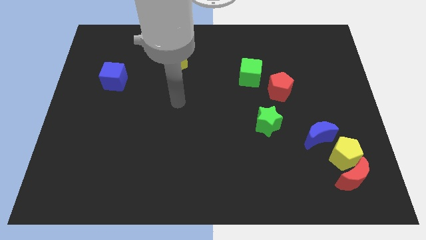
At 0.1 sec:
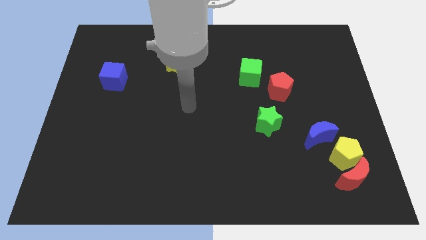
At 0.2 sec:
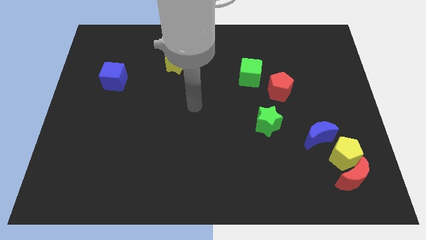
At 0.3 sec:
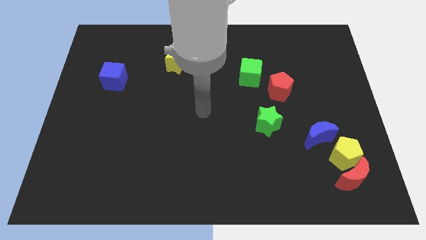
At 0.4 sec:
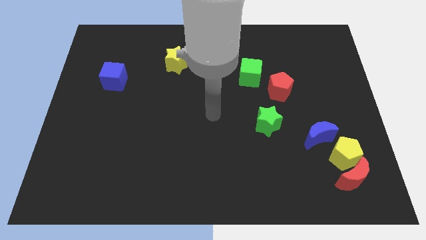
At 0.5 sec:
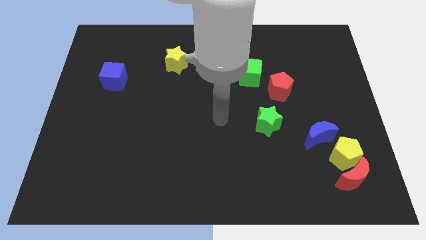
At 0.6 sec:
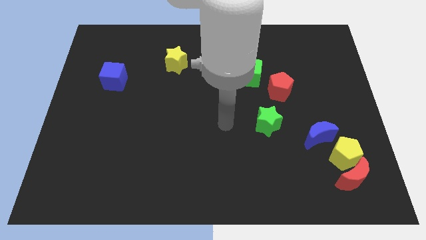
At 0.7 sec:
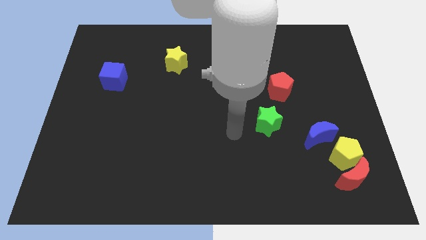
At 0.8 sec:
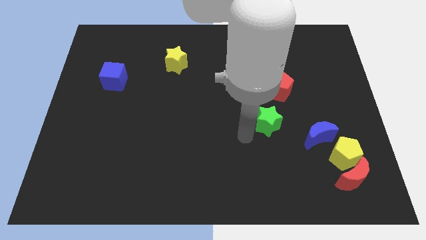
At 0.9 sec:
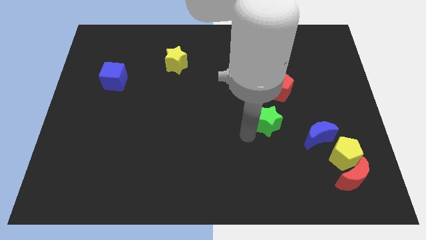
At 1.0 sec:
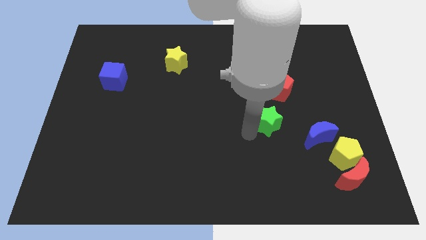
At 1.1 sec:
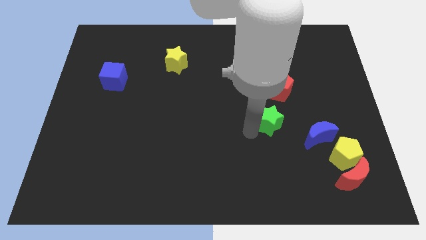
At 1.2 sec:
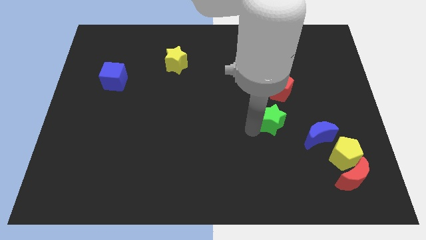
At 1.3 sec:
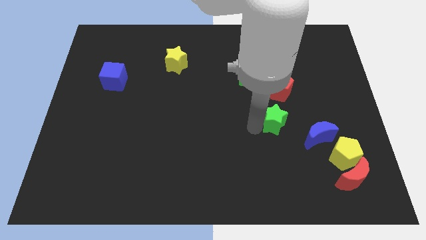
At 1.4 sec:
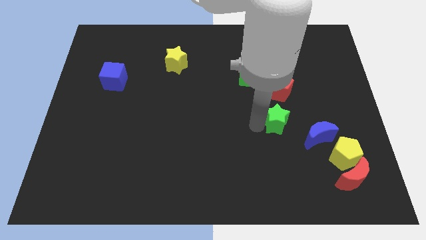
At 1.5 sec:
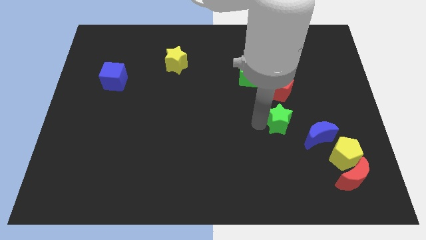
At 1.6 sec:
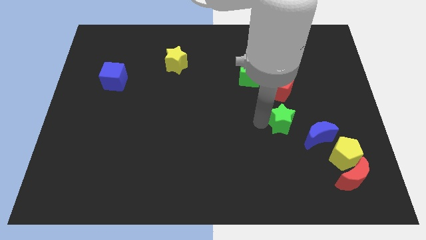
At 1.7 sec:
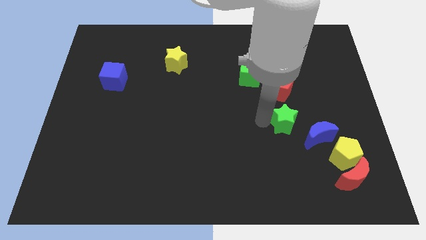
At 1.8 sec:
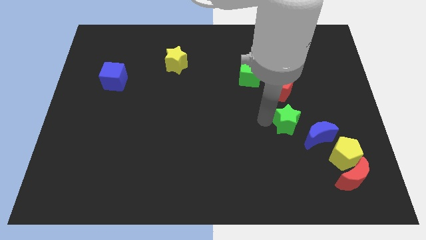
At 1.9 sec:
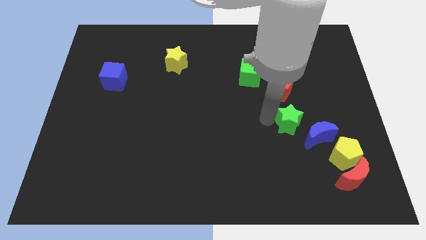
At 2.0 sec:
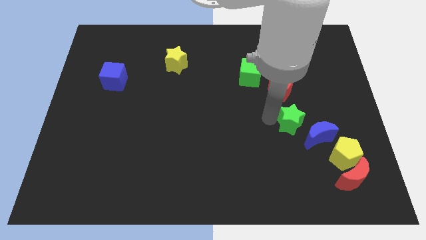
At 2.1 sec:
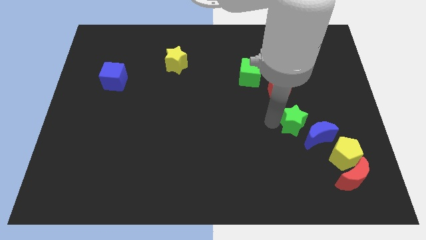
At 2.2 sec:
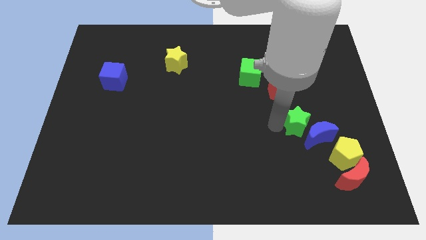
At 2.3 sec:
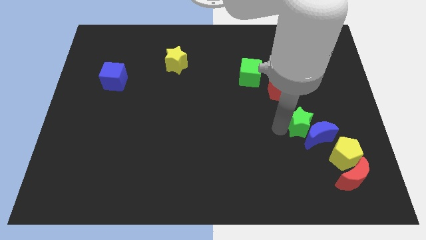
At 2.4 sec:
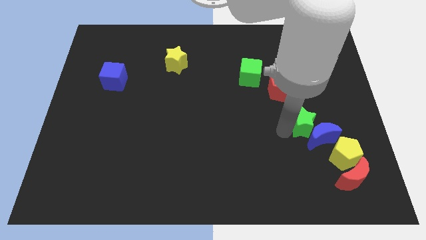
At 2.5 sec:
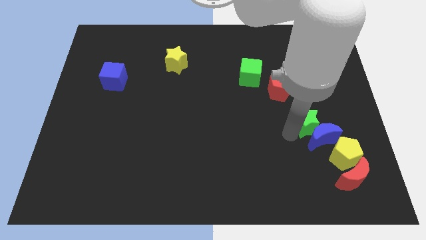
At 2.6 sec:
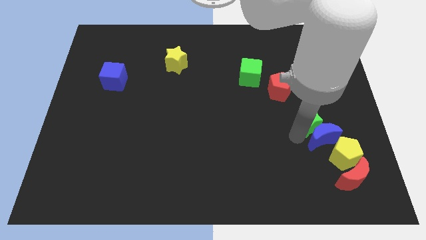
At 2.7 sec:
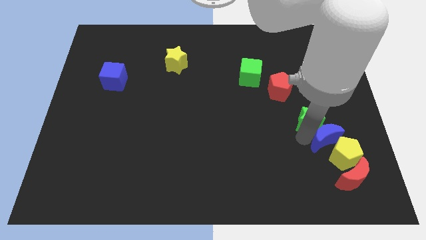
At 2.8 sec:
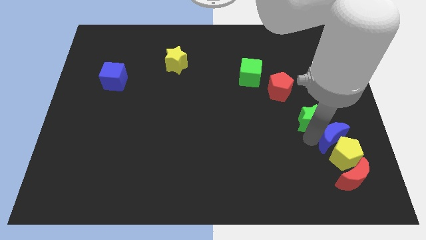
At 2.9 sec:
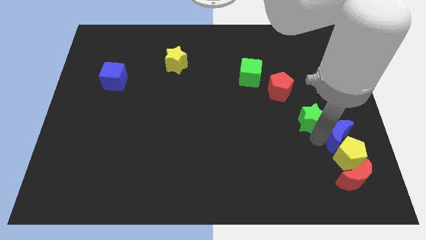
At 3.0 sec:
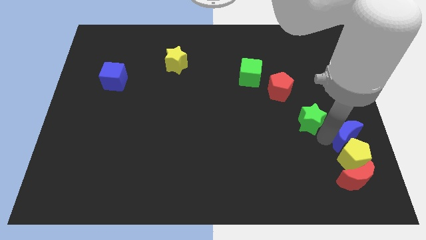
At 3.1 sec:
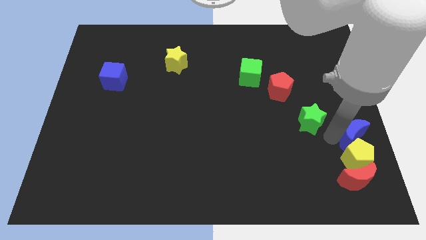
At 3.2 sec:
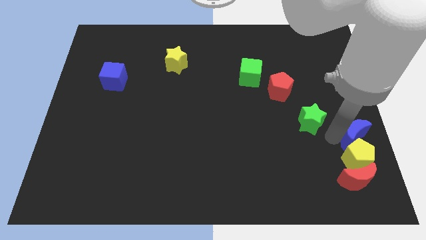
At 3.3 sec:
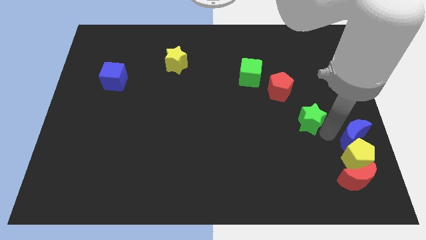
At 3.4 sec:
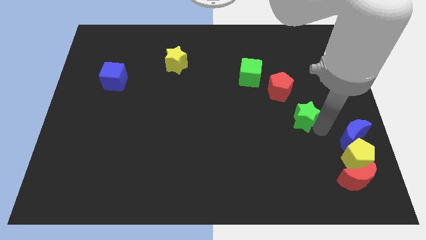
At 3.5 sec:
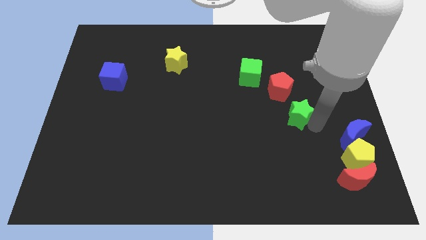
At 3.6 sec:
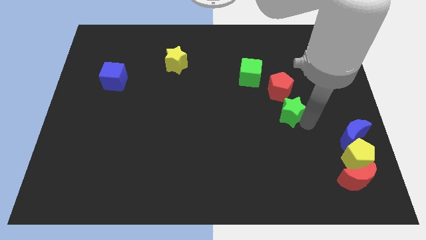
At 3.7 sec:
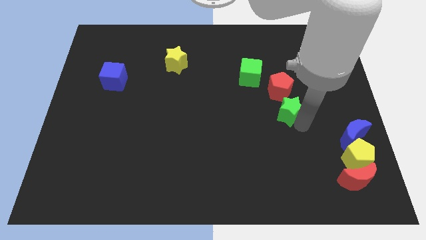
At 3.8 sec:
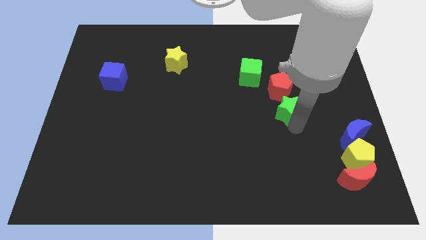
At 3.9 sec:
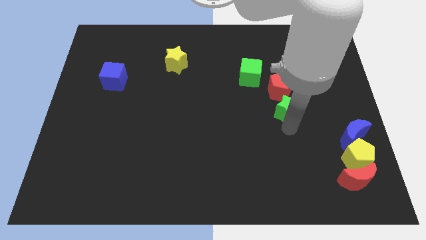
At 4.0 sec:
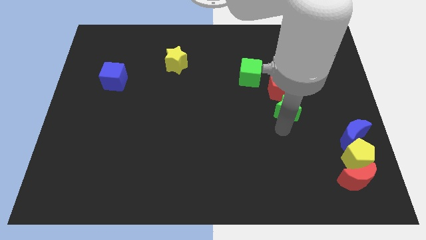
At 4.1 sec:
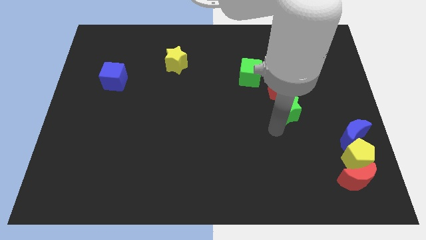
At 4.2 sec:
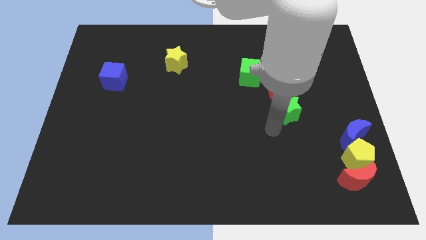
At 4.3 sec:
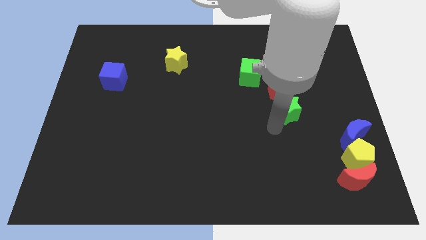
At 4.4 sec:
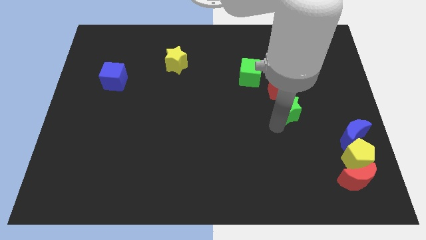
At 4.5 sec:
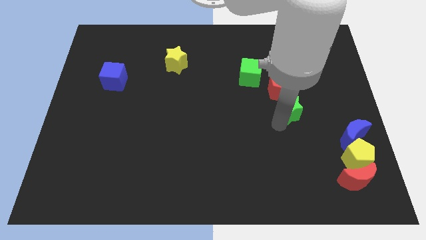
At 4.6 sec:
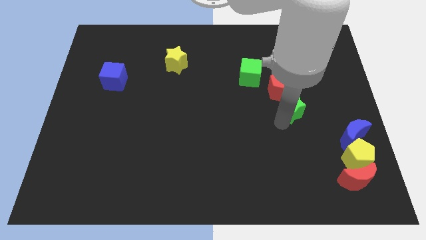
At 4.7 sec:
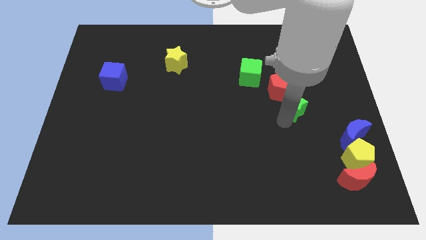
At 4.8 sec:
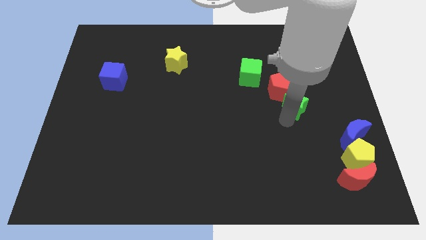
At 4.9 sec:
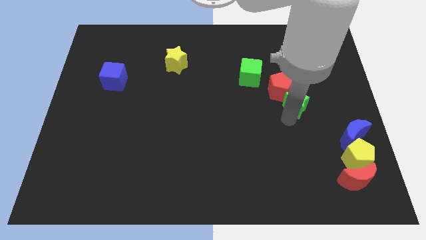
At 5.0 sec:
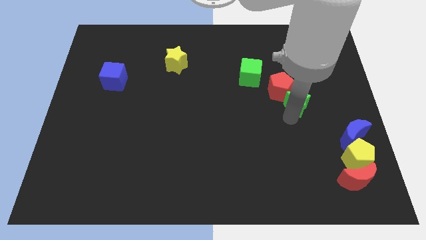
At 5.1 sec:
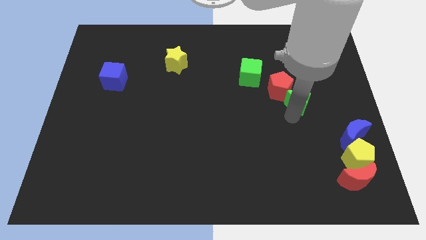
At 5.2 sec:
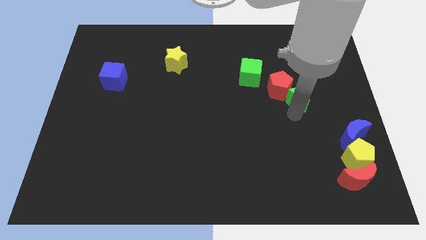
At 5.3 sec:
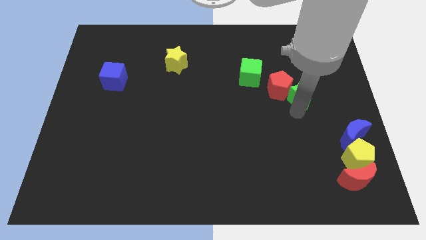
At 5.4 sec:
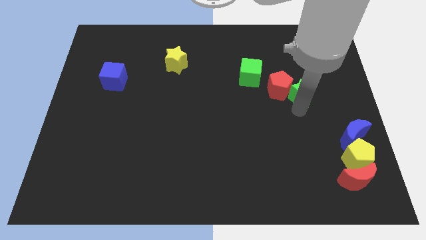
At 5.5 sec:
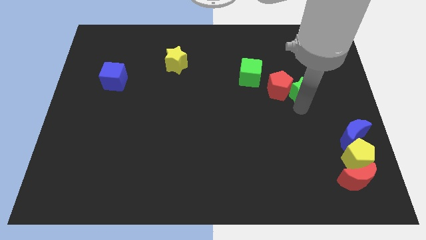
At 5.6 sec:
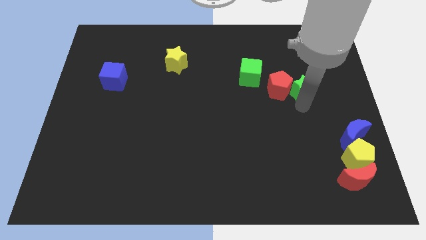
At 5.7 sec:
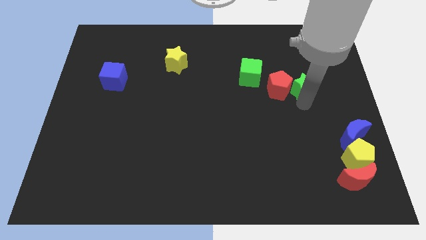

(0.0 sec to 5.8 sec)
slide the green star just right of the green cube

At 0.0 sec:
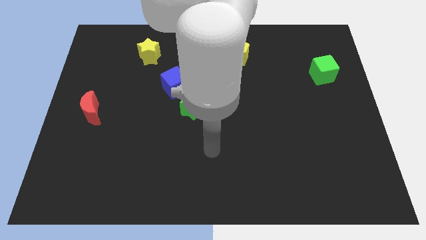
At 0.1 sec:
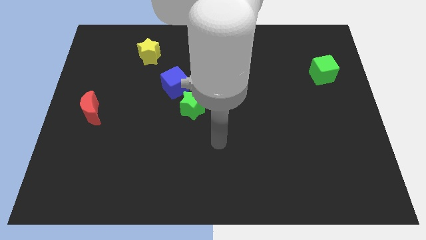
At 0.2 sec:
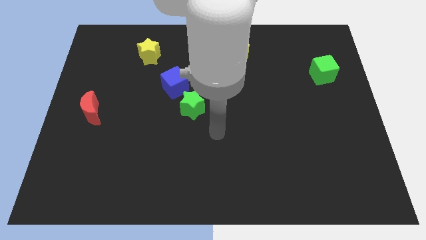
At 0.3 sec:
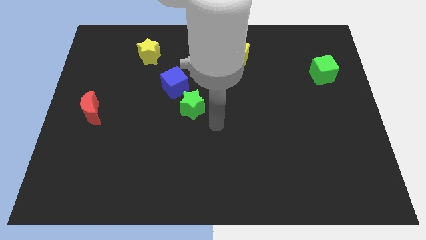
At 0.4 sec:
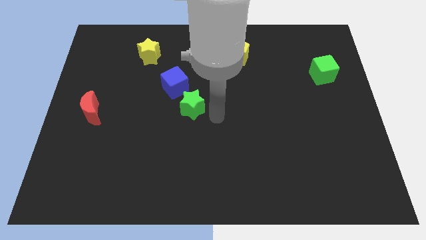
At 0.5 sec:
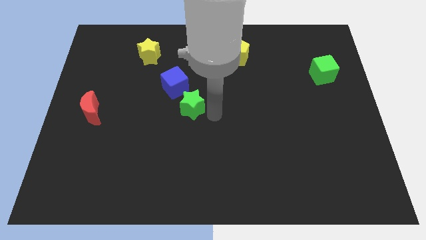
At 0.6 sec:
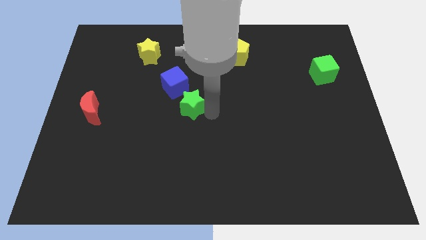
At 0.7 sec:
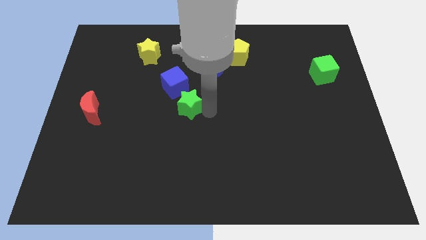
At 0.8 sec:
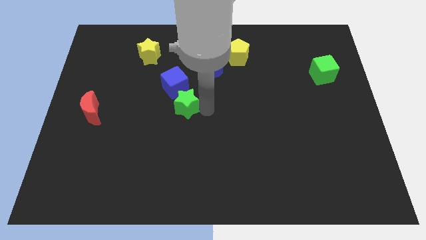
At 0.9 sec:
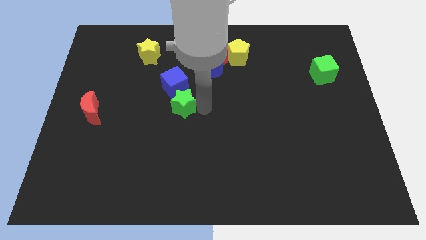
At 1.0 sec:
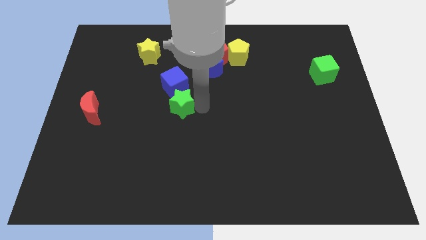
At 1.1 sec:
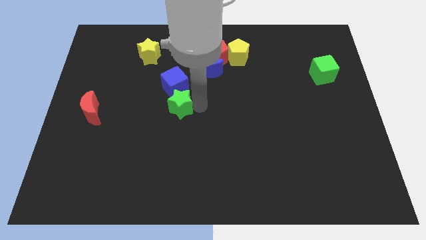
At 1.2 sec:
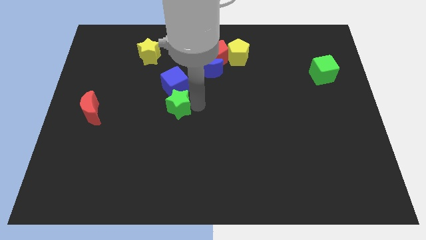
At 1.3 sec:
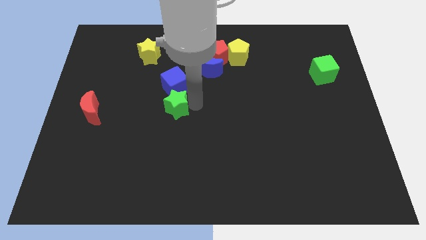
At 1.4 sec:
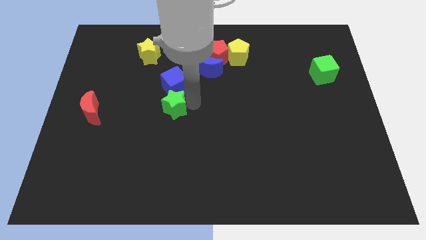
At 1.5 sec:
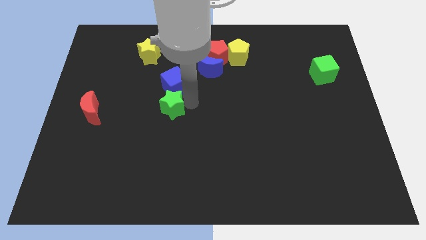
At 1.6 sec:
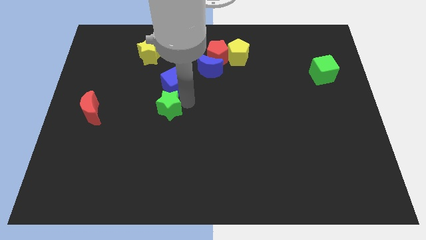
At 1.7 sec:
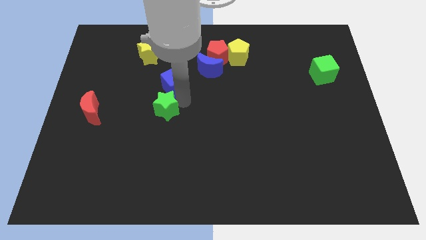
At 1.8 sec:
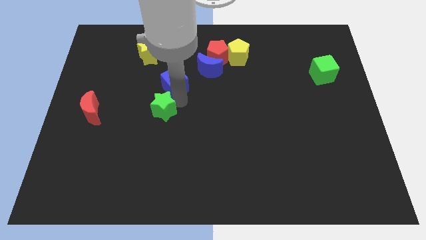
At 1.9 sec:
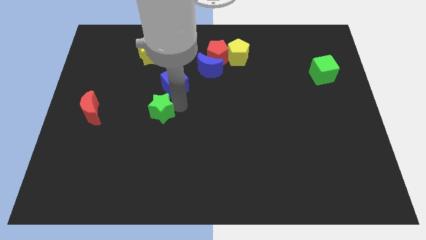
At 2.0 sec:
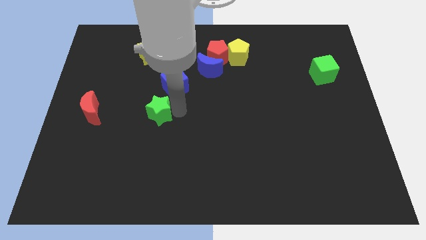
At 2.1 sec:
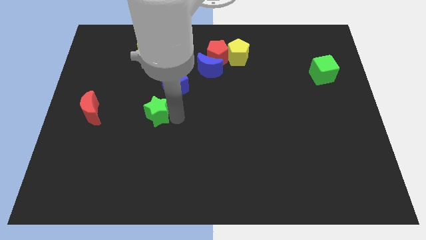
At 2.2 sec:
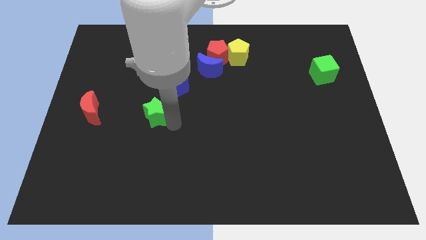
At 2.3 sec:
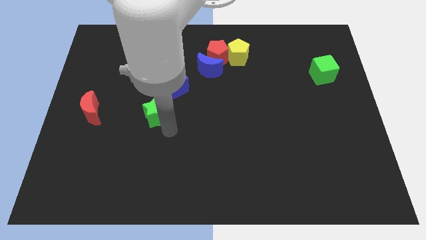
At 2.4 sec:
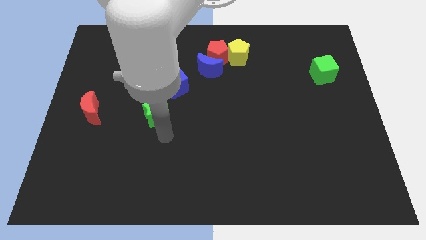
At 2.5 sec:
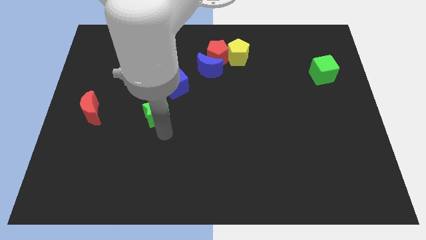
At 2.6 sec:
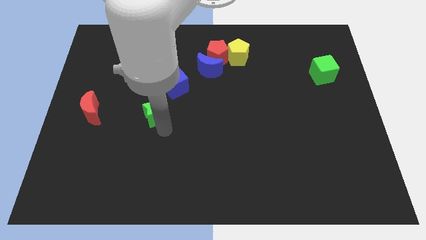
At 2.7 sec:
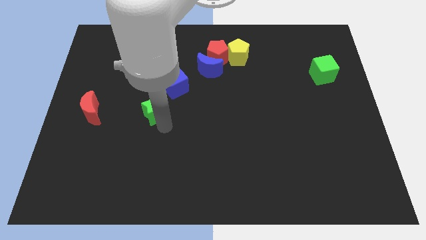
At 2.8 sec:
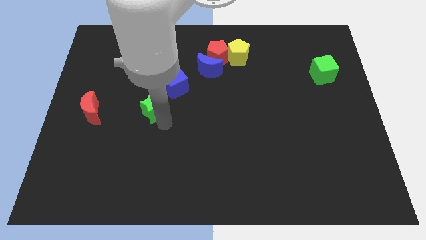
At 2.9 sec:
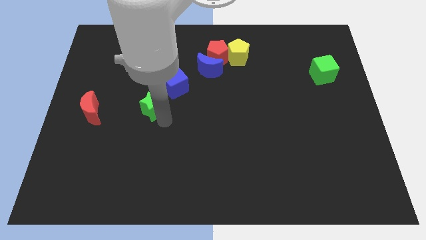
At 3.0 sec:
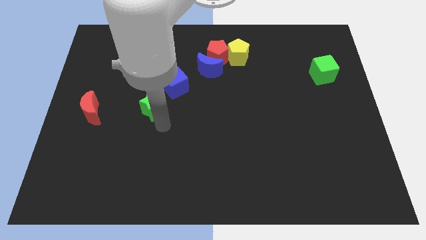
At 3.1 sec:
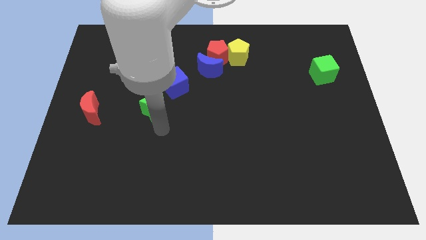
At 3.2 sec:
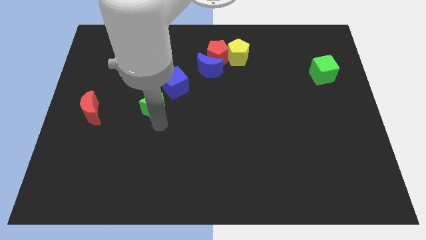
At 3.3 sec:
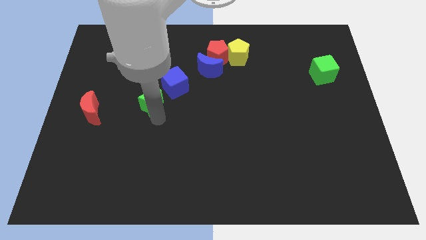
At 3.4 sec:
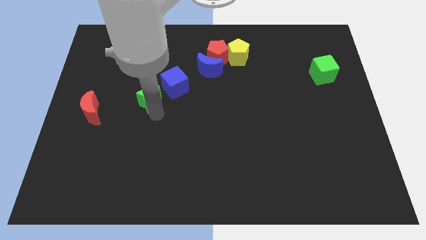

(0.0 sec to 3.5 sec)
move the green star to the left of the blue cube
